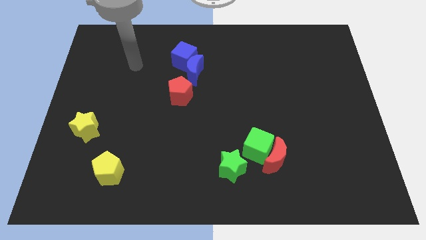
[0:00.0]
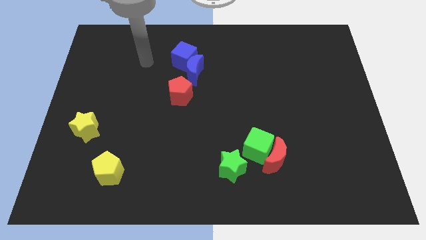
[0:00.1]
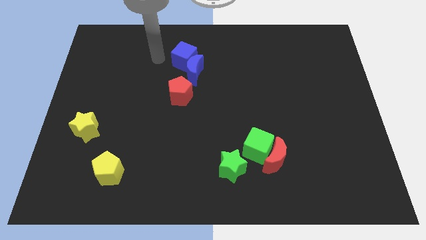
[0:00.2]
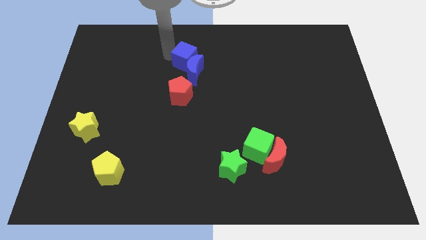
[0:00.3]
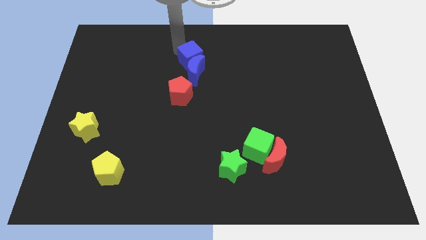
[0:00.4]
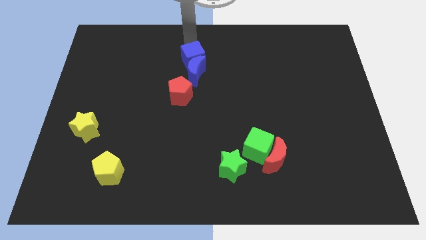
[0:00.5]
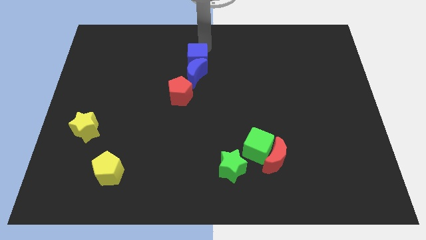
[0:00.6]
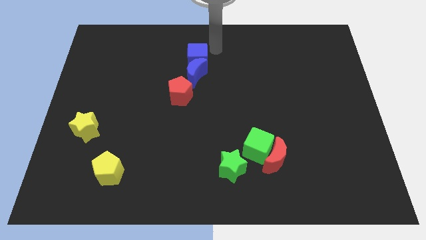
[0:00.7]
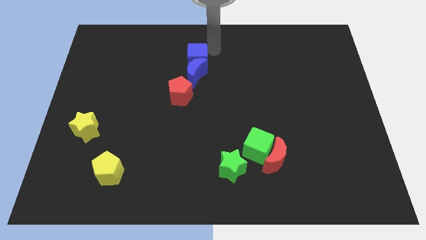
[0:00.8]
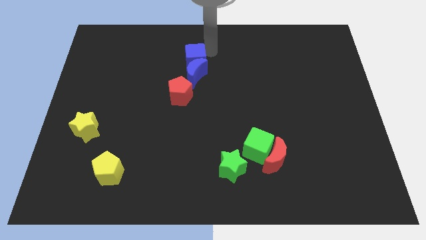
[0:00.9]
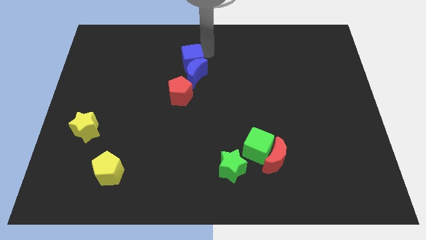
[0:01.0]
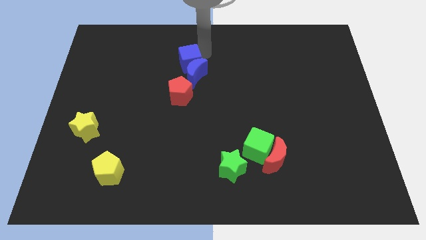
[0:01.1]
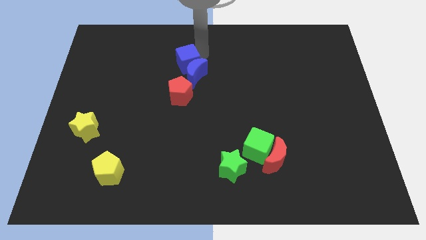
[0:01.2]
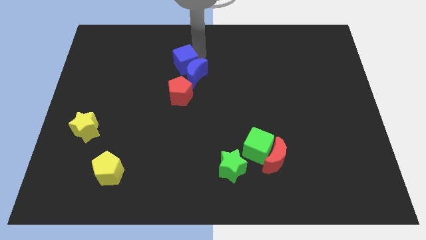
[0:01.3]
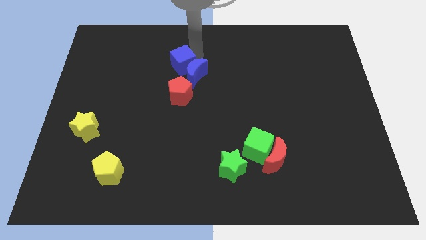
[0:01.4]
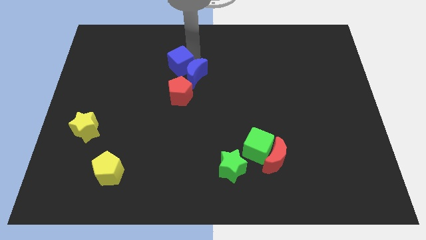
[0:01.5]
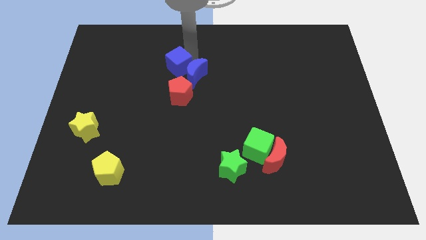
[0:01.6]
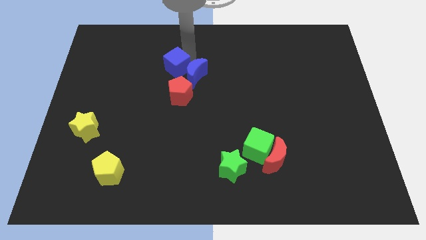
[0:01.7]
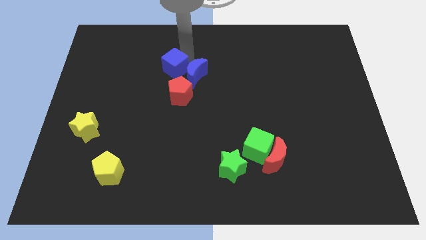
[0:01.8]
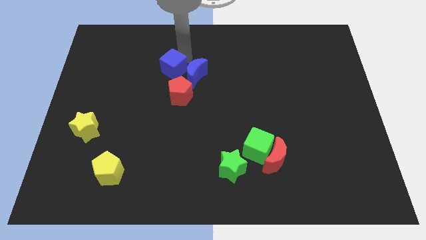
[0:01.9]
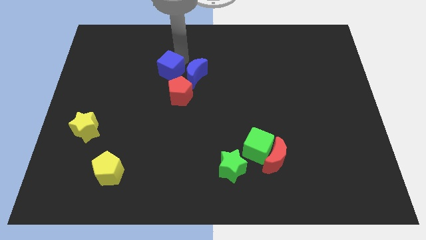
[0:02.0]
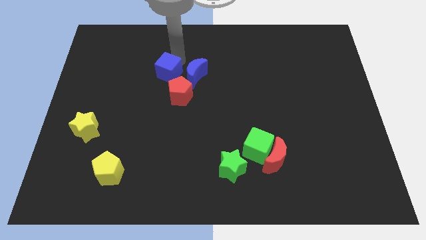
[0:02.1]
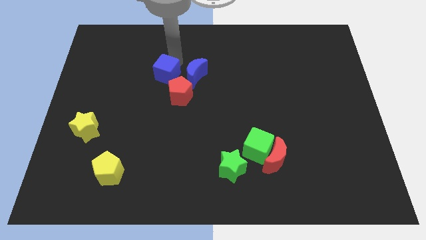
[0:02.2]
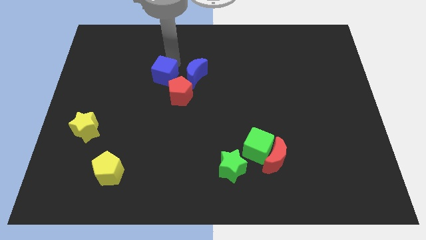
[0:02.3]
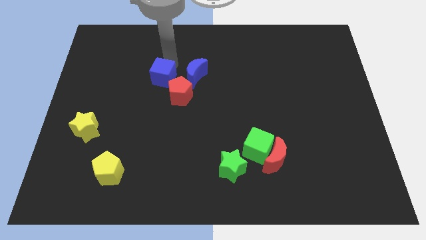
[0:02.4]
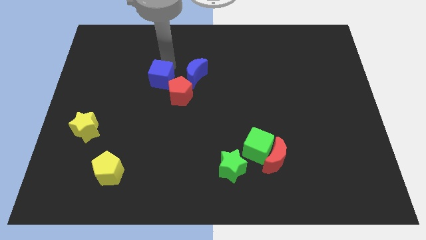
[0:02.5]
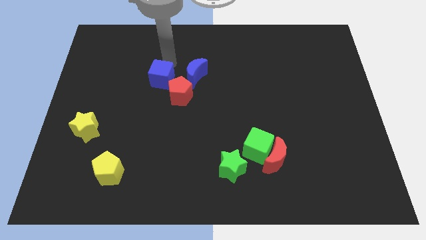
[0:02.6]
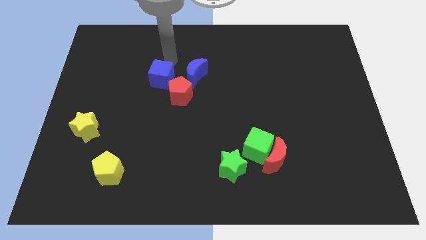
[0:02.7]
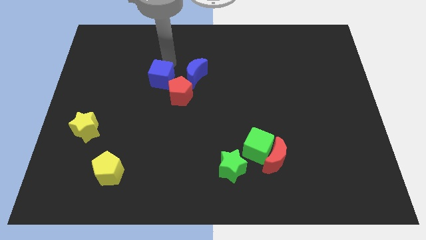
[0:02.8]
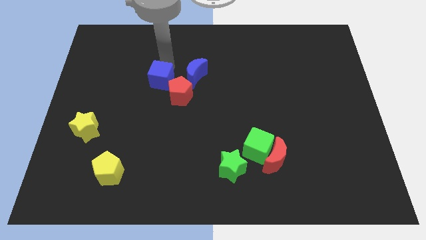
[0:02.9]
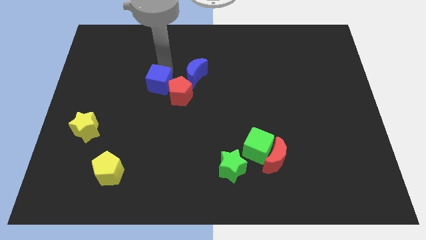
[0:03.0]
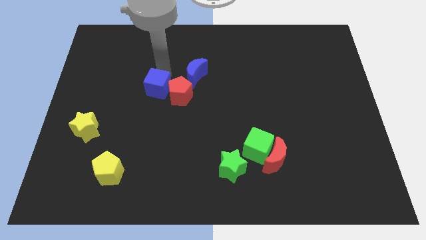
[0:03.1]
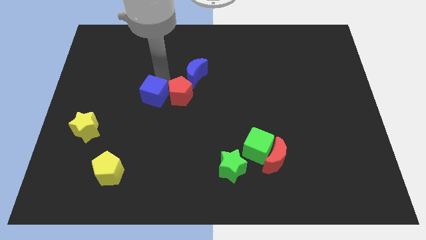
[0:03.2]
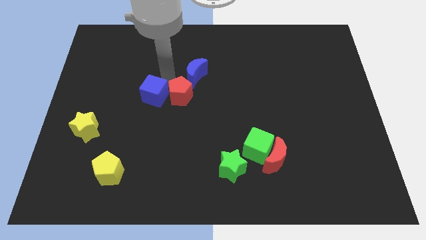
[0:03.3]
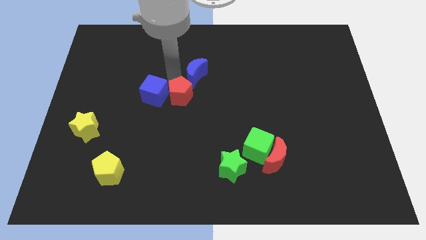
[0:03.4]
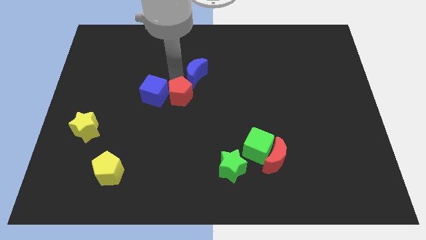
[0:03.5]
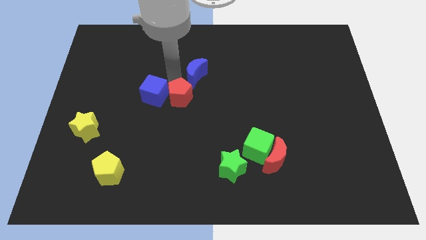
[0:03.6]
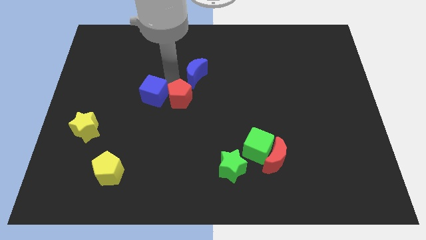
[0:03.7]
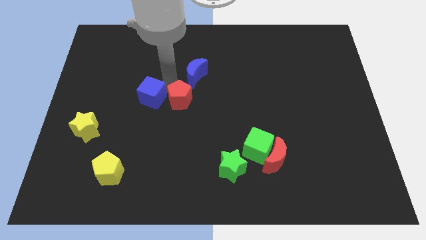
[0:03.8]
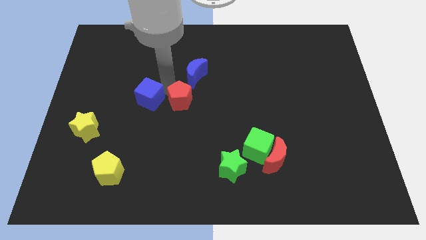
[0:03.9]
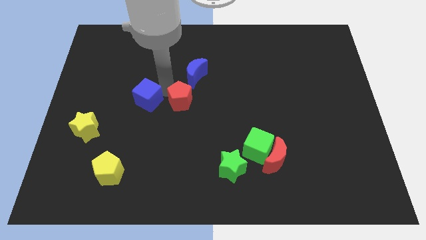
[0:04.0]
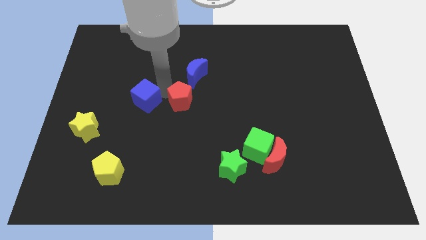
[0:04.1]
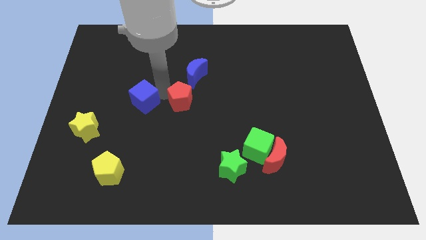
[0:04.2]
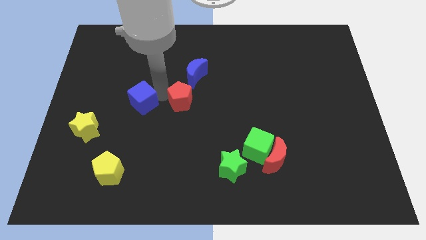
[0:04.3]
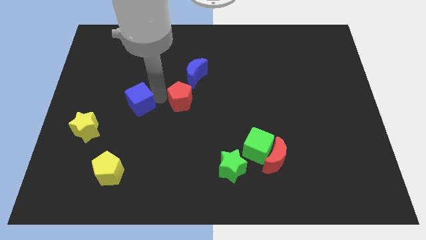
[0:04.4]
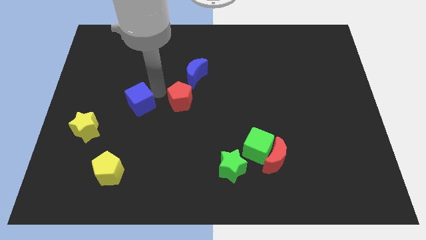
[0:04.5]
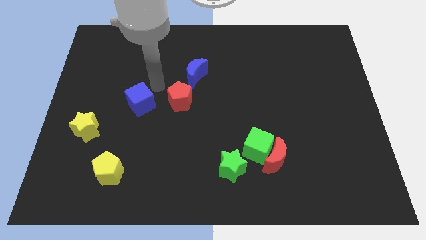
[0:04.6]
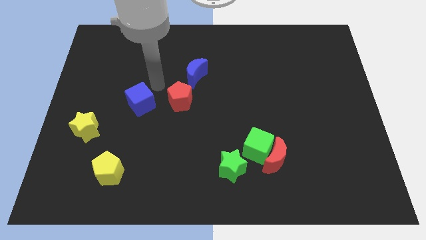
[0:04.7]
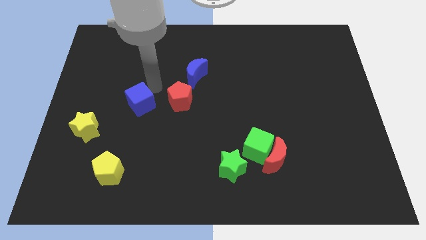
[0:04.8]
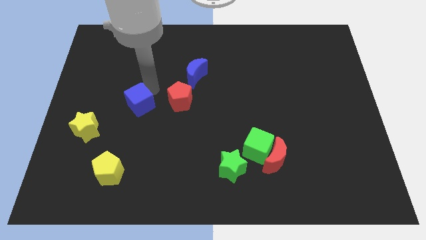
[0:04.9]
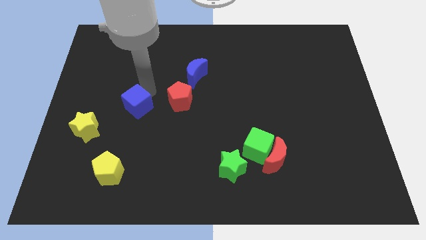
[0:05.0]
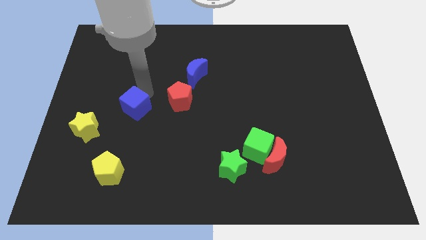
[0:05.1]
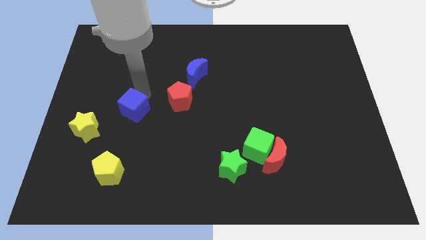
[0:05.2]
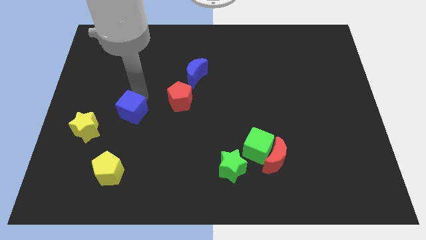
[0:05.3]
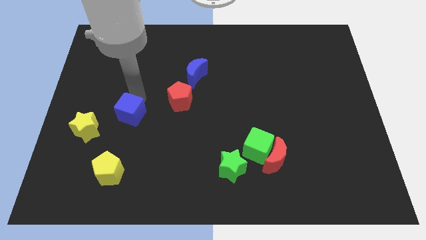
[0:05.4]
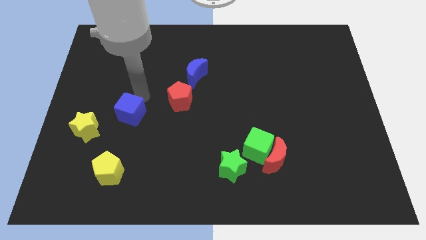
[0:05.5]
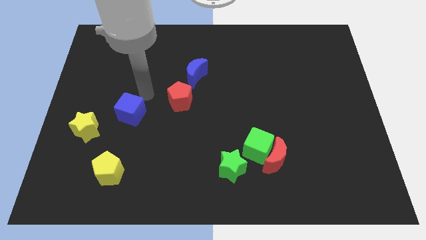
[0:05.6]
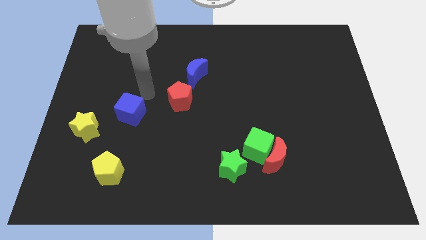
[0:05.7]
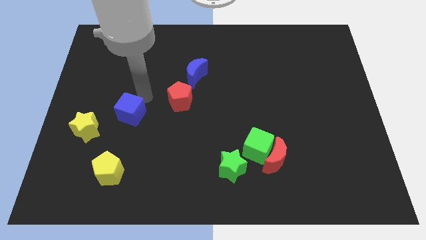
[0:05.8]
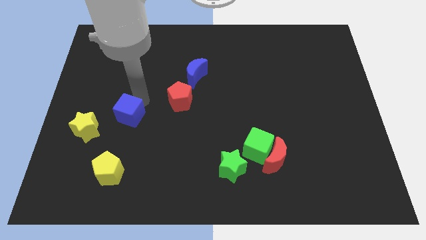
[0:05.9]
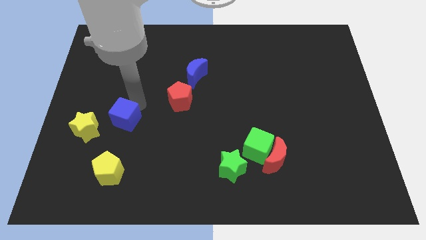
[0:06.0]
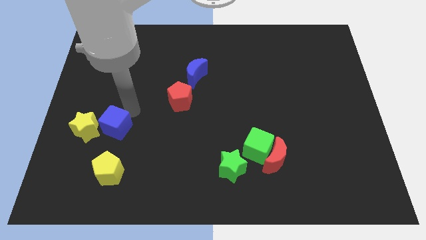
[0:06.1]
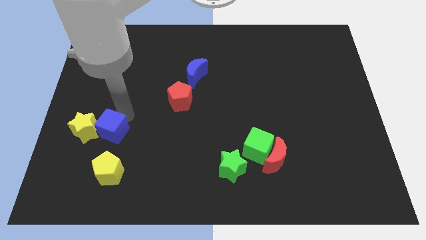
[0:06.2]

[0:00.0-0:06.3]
put the blue cube to the bottom right side of the yellow star

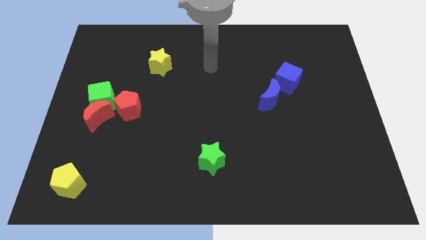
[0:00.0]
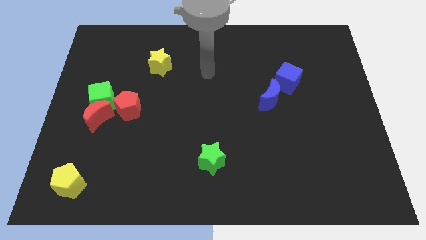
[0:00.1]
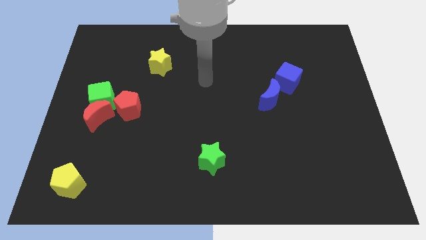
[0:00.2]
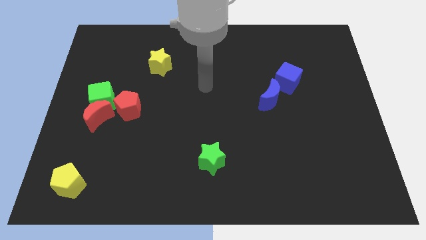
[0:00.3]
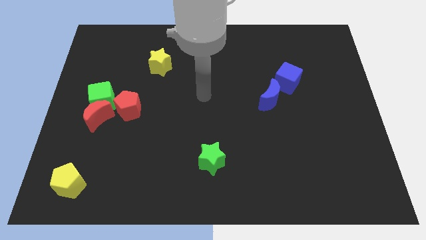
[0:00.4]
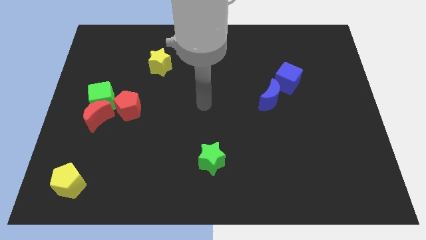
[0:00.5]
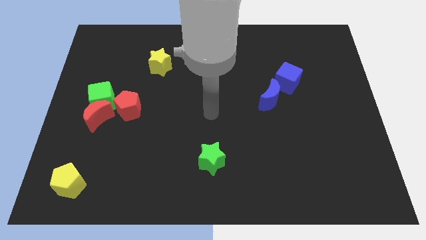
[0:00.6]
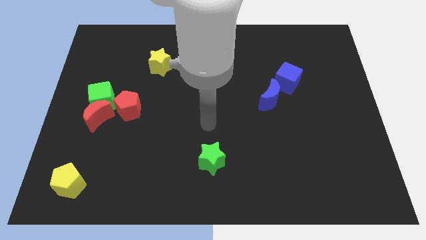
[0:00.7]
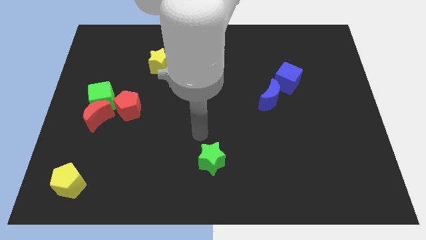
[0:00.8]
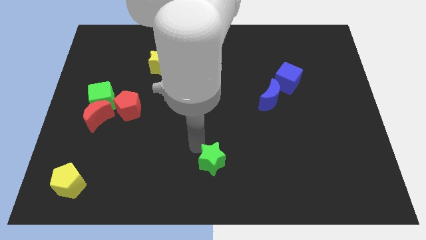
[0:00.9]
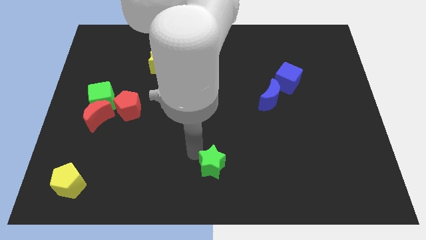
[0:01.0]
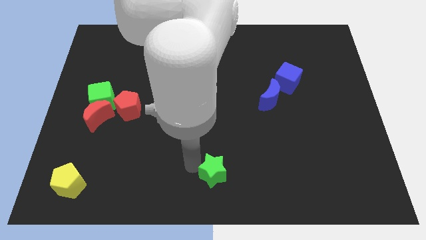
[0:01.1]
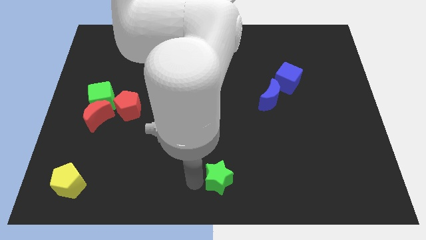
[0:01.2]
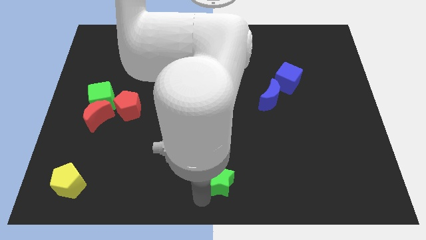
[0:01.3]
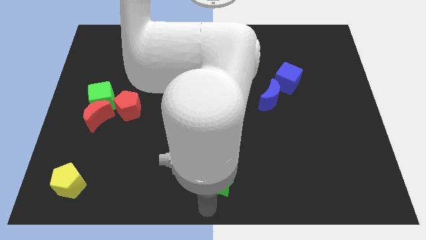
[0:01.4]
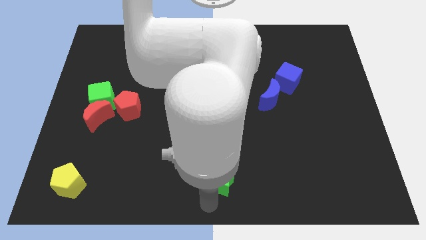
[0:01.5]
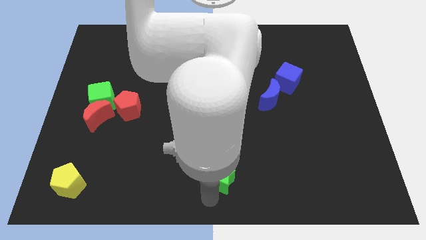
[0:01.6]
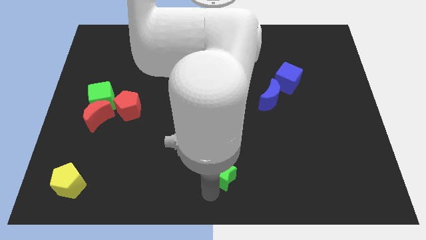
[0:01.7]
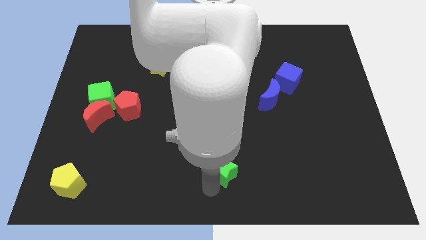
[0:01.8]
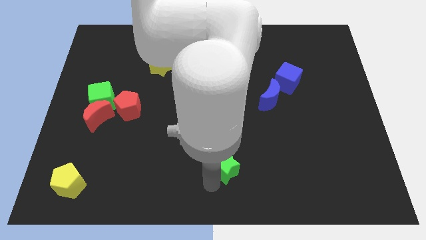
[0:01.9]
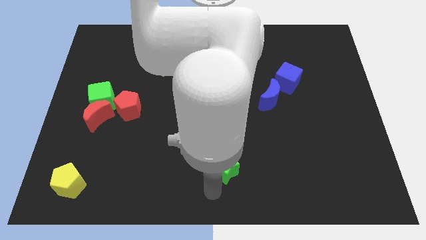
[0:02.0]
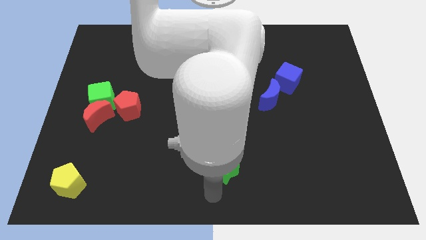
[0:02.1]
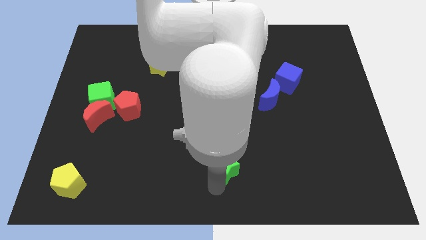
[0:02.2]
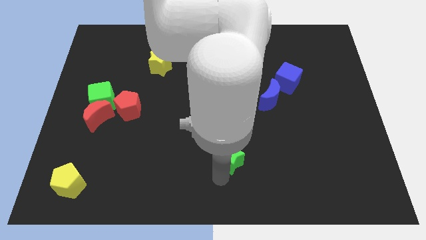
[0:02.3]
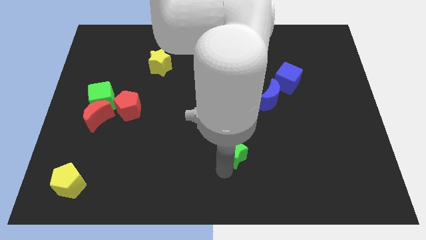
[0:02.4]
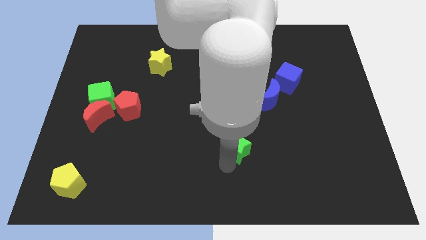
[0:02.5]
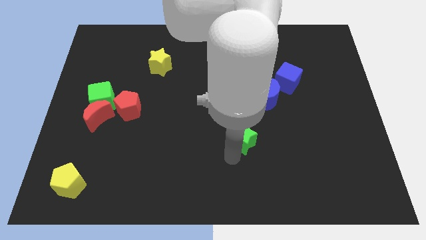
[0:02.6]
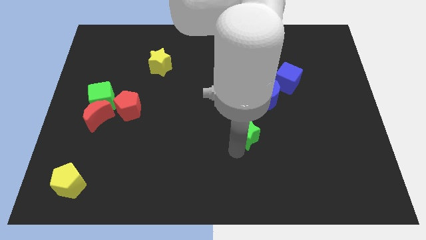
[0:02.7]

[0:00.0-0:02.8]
slide the green star diagonally down and to the left of the blue moon
